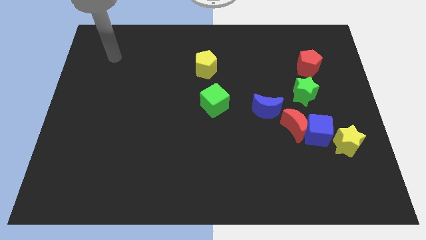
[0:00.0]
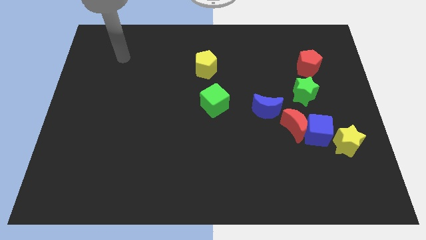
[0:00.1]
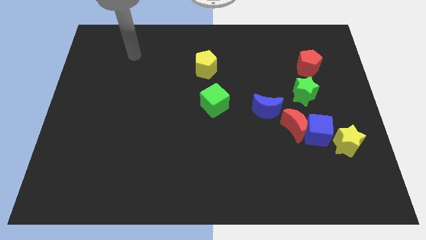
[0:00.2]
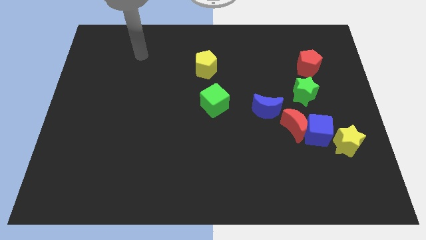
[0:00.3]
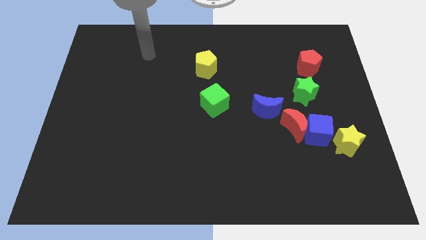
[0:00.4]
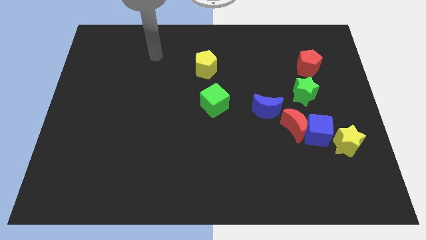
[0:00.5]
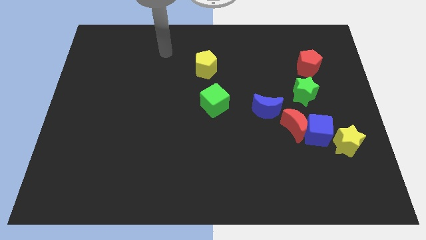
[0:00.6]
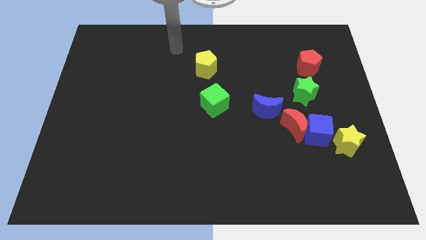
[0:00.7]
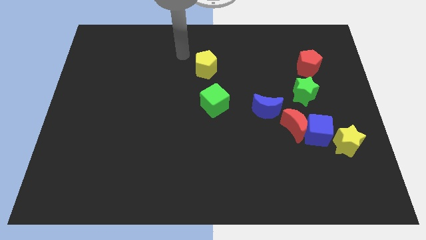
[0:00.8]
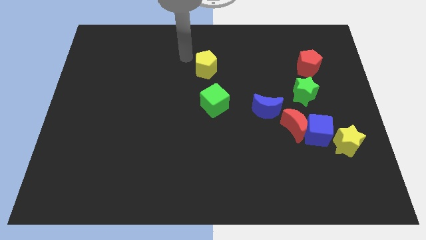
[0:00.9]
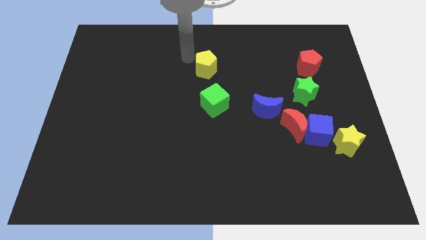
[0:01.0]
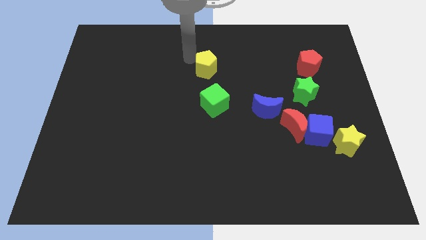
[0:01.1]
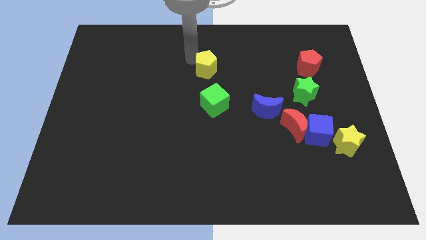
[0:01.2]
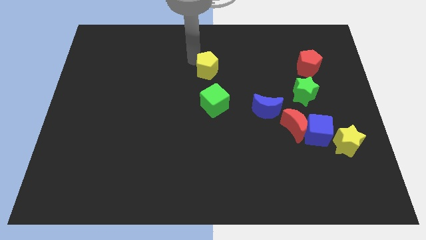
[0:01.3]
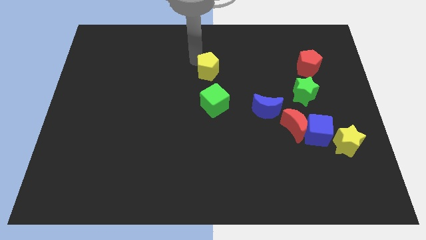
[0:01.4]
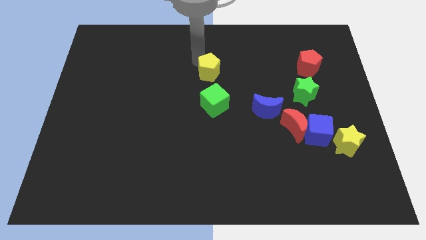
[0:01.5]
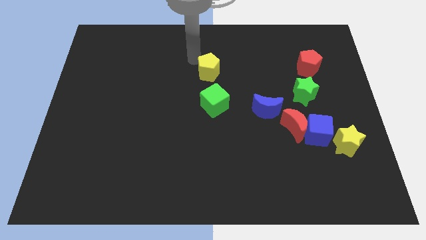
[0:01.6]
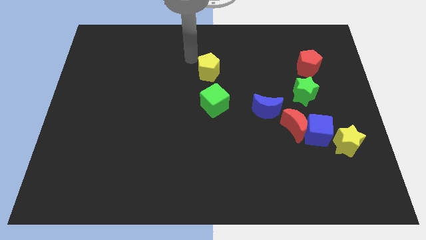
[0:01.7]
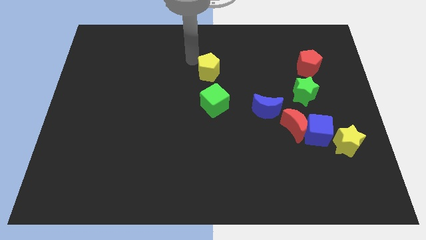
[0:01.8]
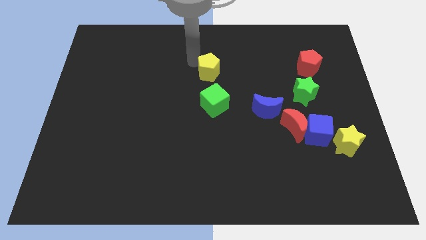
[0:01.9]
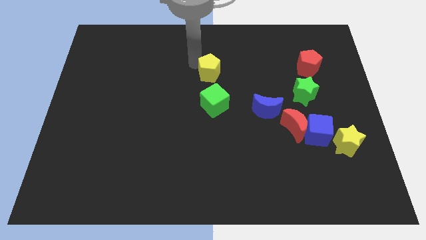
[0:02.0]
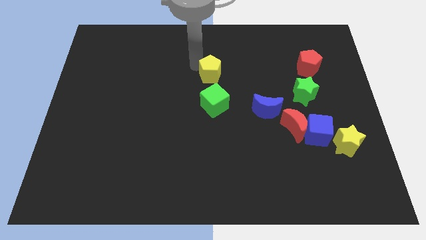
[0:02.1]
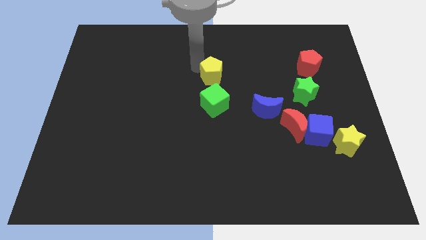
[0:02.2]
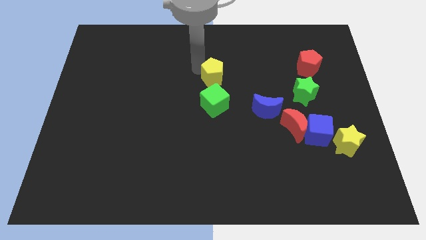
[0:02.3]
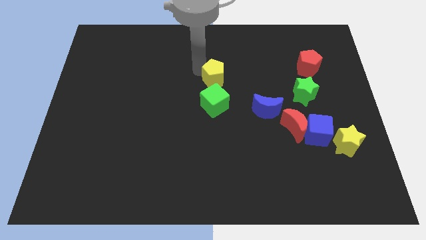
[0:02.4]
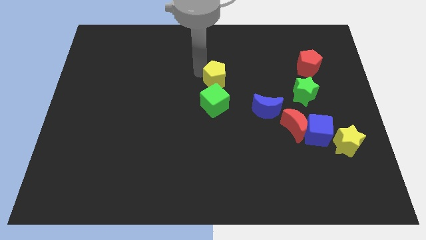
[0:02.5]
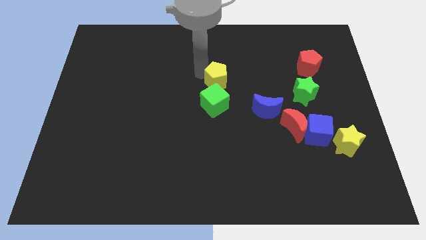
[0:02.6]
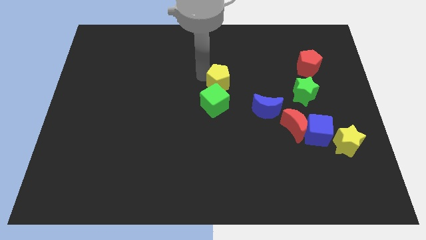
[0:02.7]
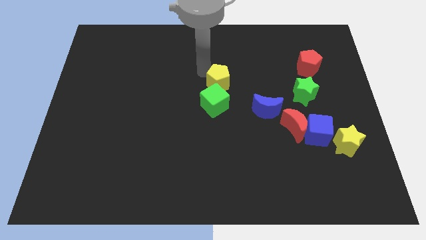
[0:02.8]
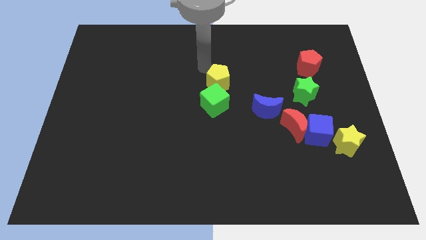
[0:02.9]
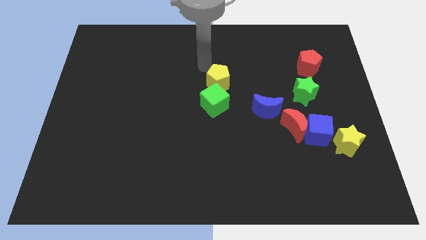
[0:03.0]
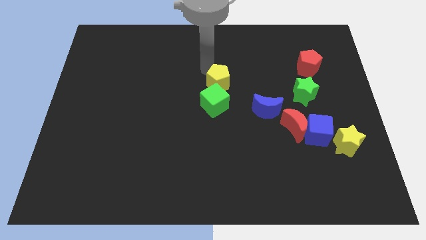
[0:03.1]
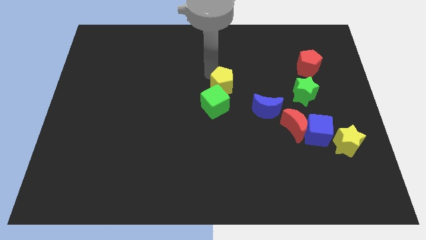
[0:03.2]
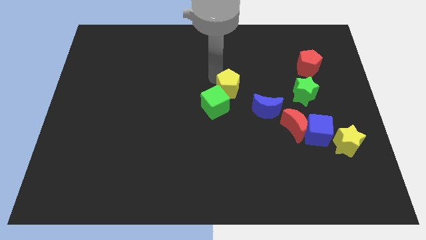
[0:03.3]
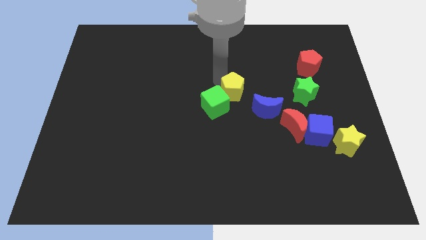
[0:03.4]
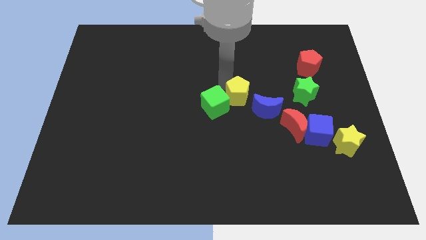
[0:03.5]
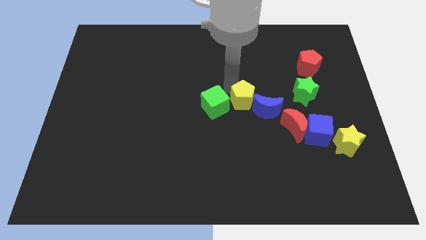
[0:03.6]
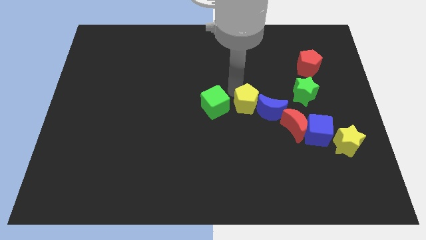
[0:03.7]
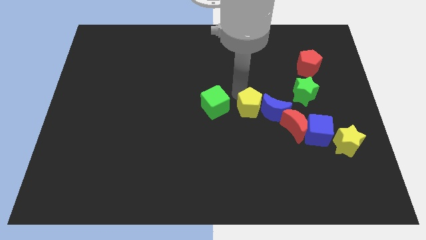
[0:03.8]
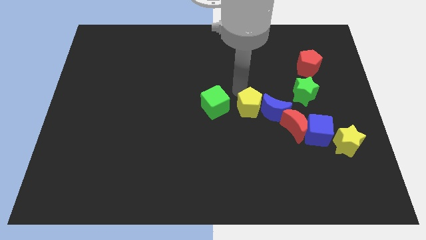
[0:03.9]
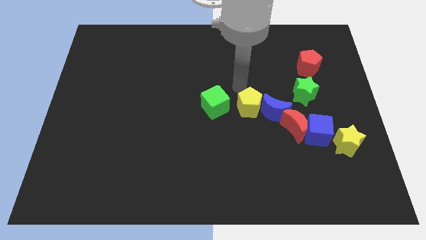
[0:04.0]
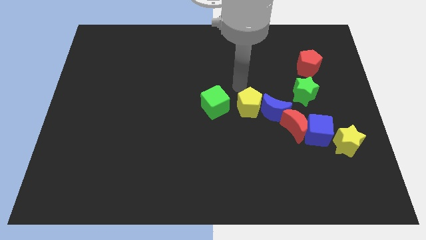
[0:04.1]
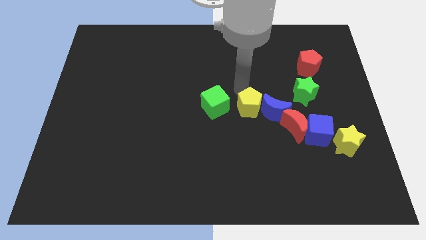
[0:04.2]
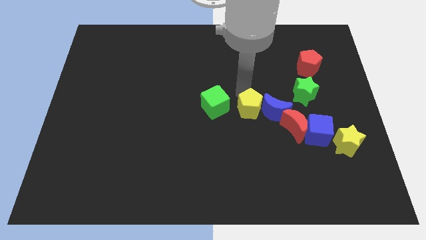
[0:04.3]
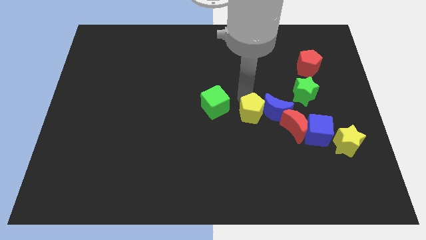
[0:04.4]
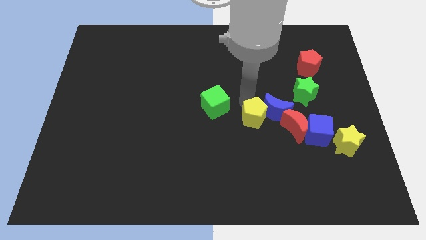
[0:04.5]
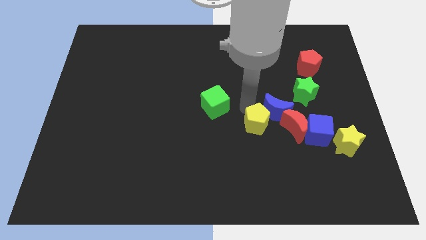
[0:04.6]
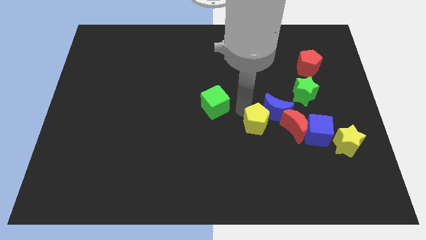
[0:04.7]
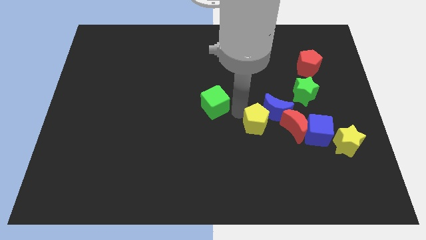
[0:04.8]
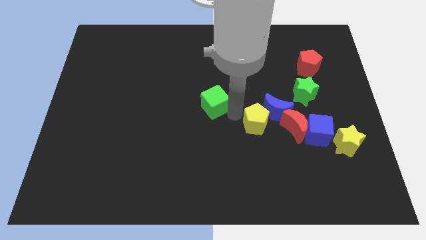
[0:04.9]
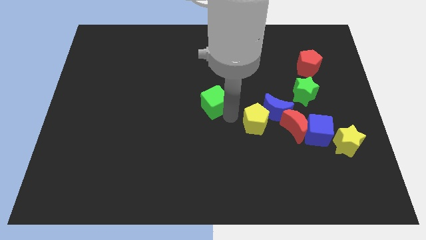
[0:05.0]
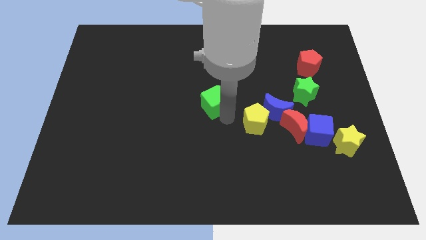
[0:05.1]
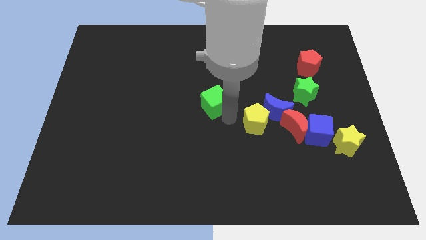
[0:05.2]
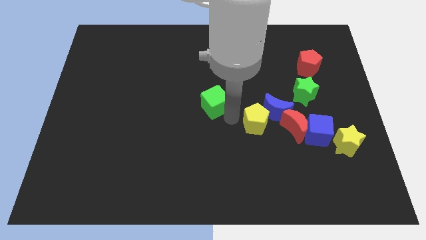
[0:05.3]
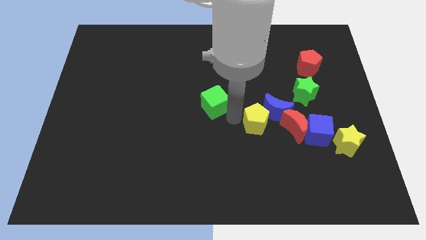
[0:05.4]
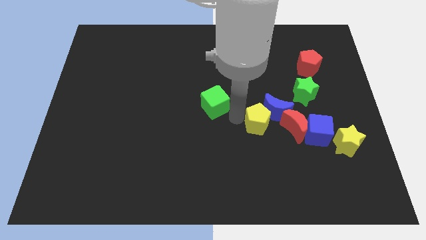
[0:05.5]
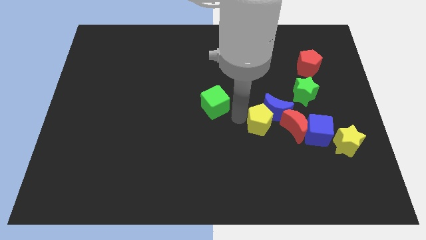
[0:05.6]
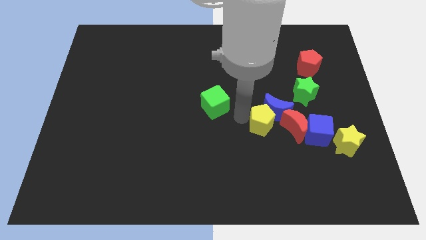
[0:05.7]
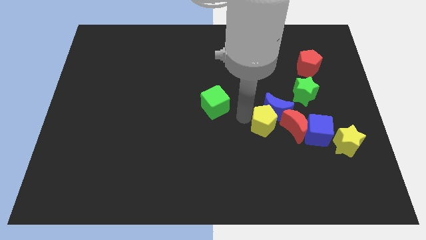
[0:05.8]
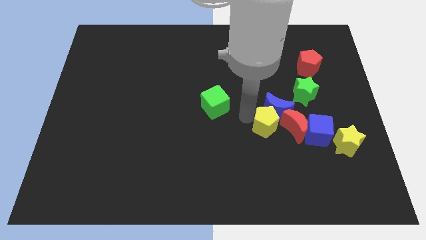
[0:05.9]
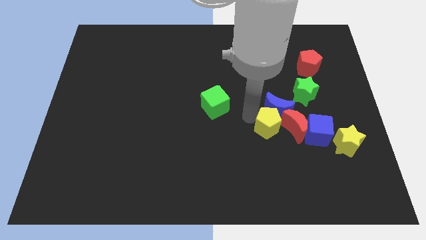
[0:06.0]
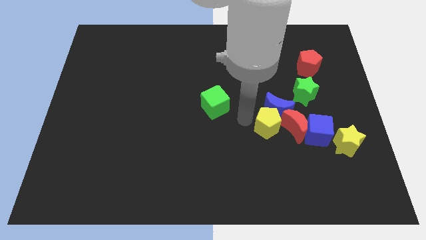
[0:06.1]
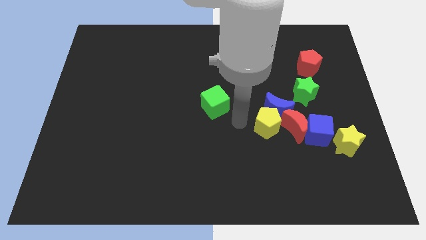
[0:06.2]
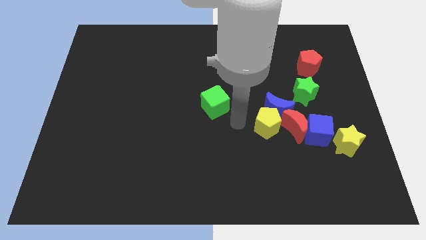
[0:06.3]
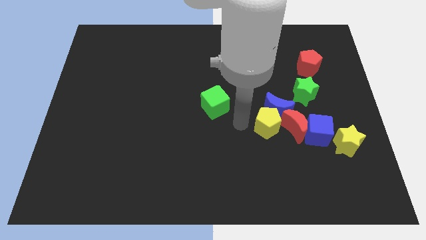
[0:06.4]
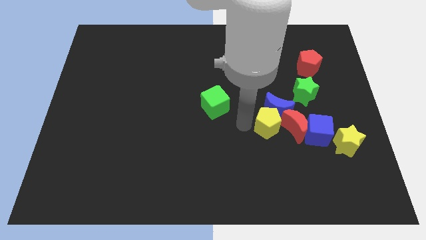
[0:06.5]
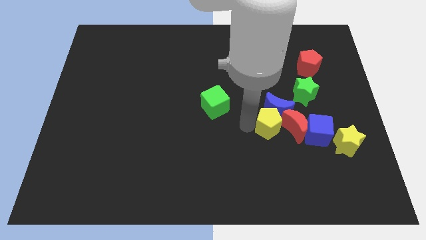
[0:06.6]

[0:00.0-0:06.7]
move the yellow pentagon next to the red moon

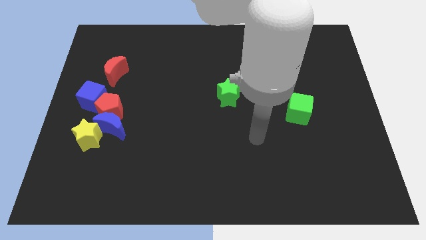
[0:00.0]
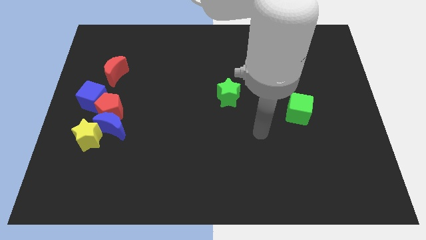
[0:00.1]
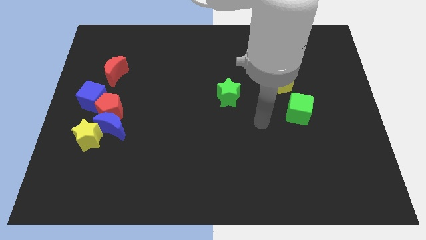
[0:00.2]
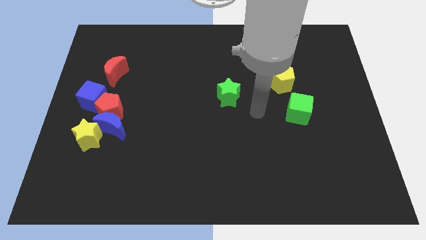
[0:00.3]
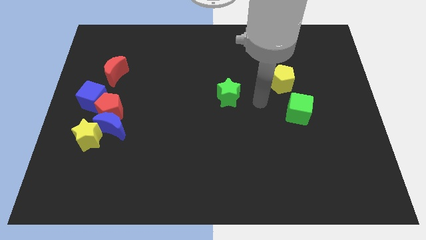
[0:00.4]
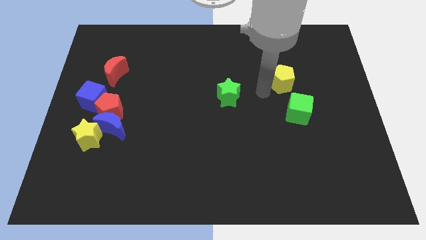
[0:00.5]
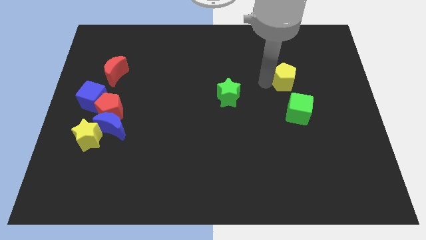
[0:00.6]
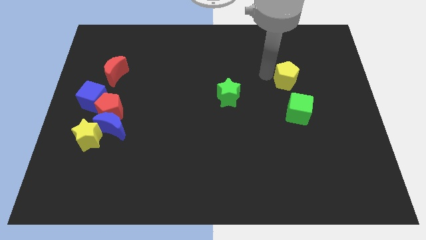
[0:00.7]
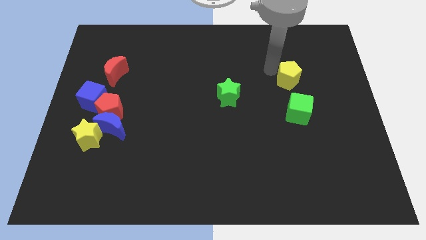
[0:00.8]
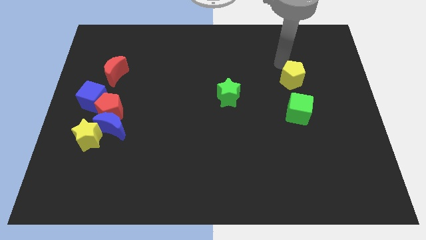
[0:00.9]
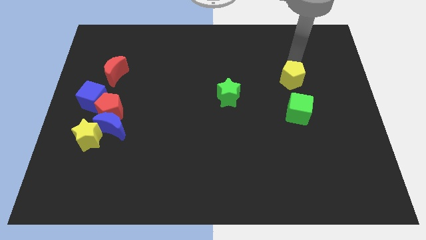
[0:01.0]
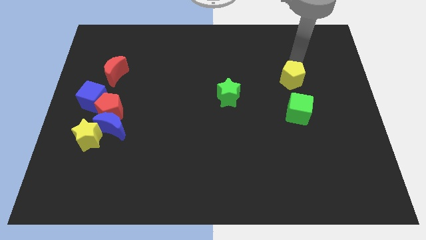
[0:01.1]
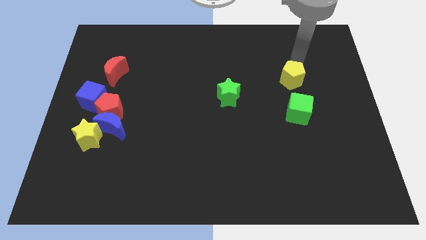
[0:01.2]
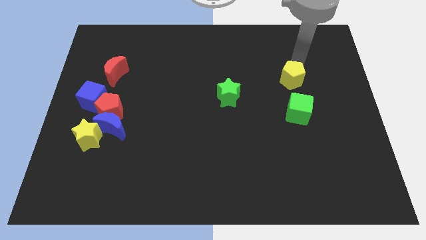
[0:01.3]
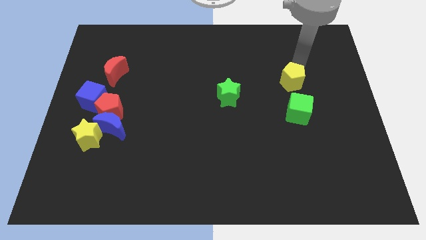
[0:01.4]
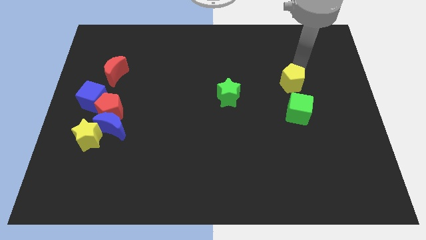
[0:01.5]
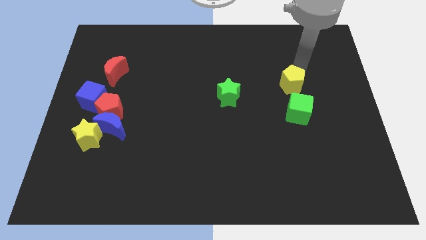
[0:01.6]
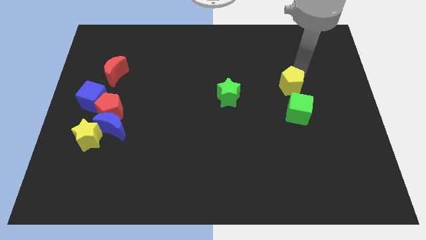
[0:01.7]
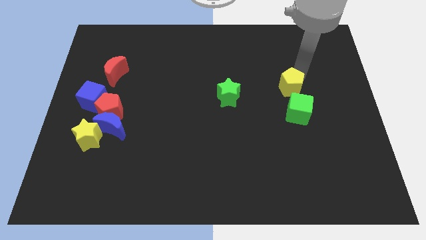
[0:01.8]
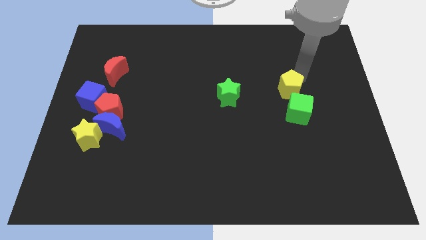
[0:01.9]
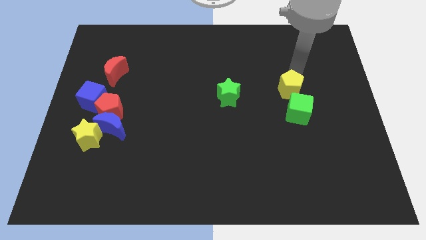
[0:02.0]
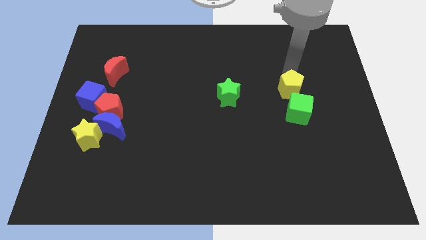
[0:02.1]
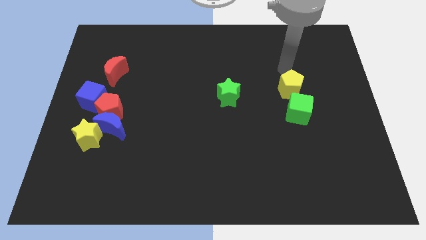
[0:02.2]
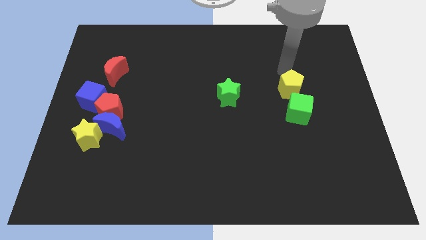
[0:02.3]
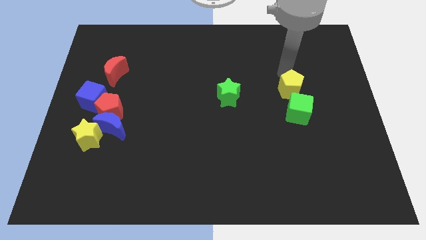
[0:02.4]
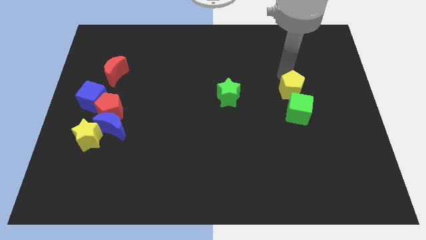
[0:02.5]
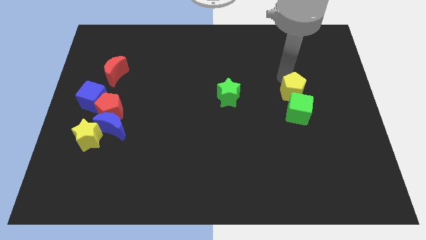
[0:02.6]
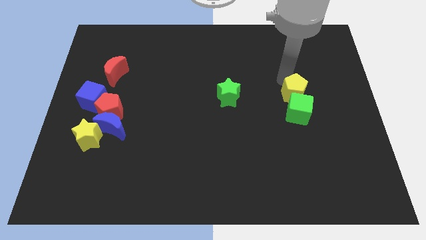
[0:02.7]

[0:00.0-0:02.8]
slide the yellow pentagon to the green cube
